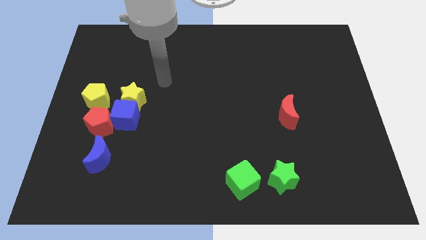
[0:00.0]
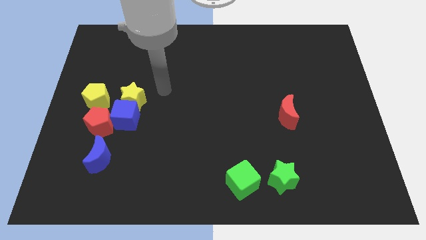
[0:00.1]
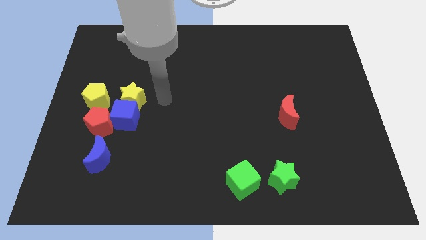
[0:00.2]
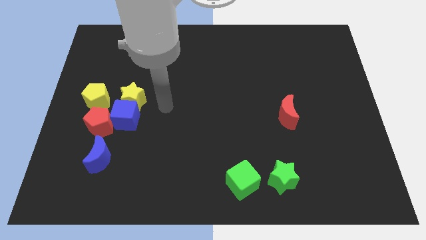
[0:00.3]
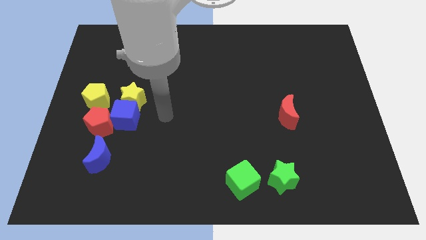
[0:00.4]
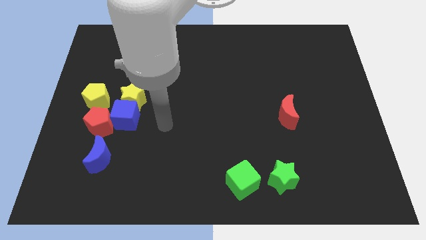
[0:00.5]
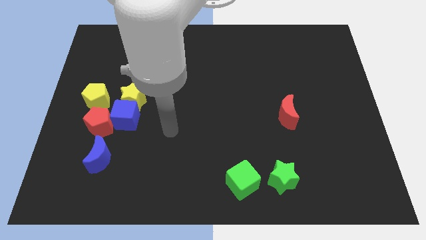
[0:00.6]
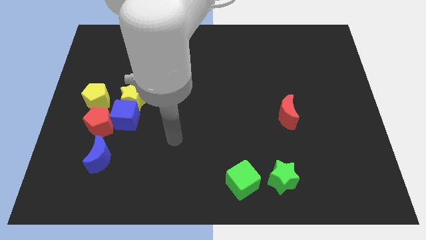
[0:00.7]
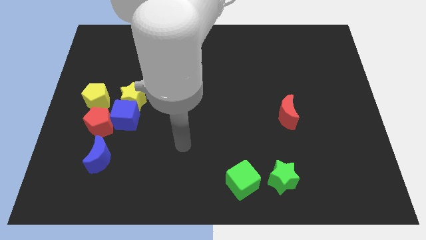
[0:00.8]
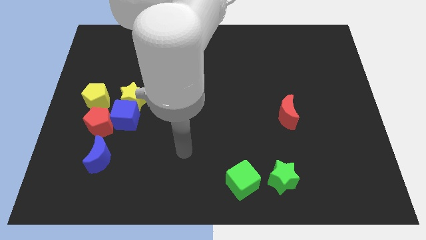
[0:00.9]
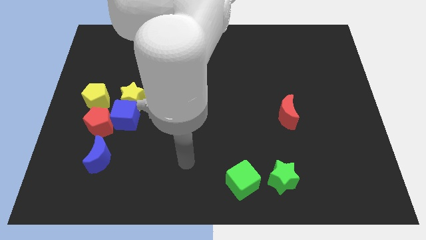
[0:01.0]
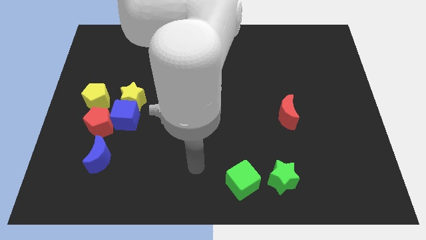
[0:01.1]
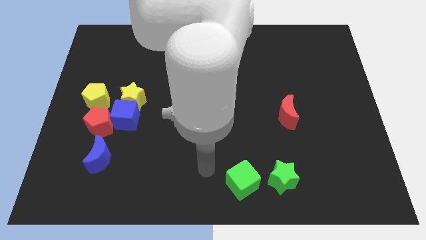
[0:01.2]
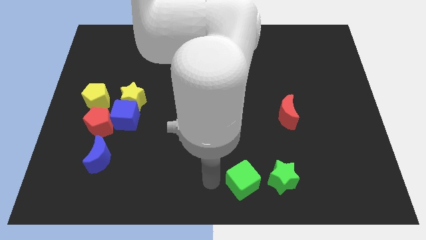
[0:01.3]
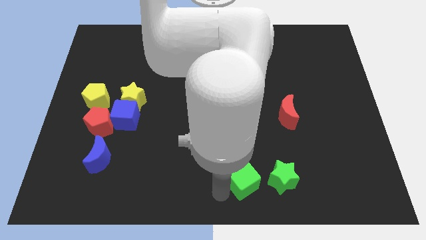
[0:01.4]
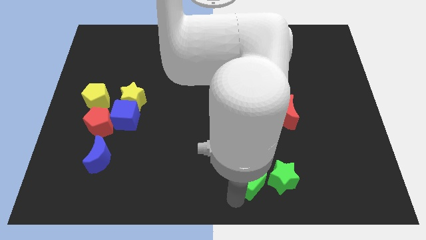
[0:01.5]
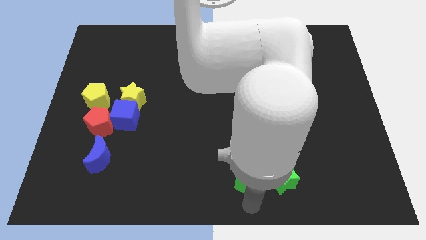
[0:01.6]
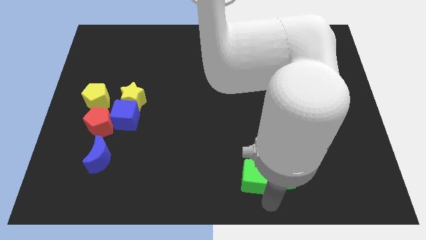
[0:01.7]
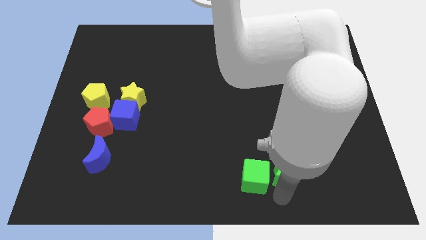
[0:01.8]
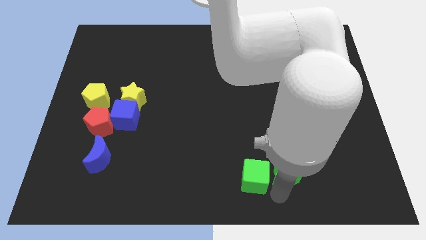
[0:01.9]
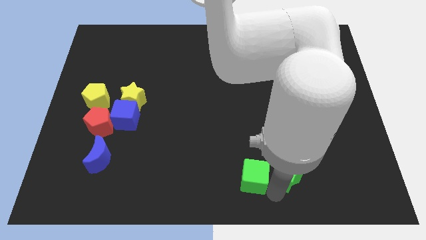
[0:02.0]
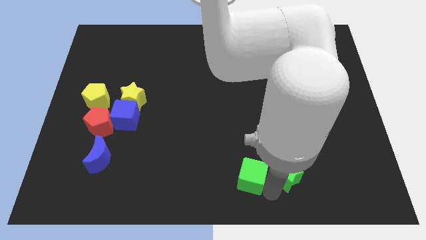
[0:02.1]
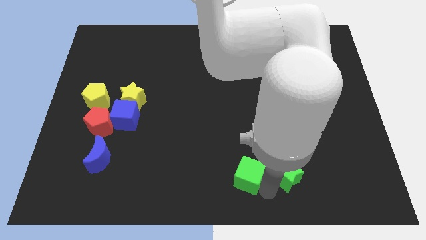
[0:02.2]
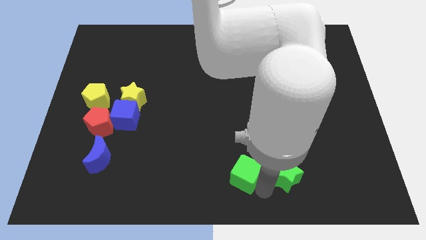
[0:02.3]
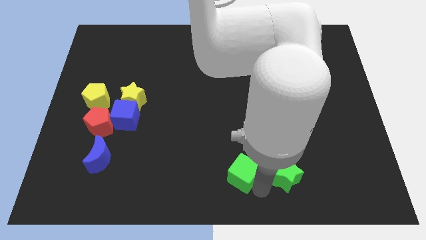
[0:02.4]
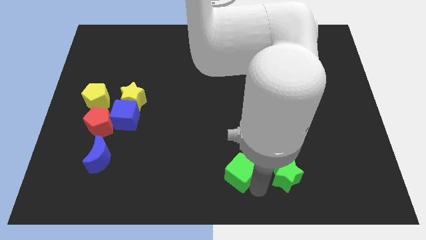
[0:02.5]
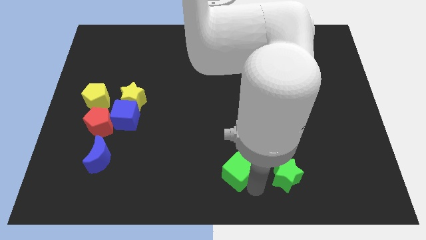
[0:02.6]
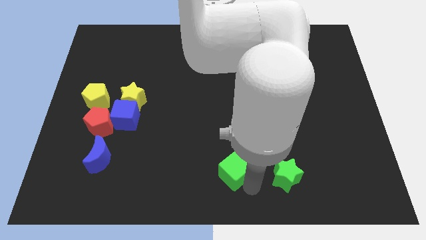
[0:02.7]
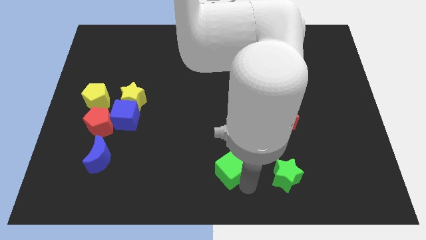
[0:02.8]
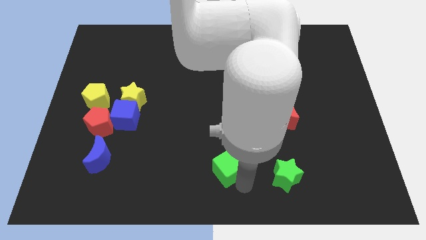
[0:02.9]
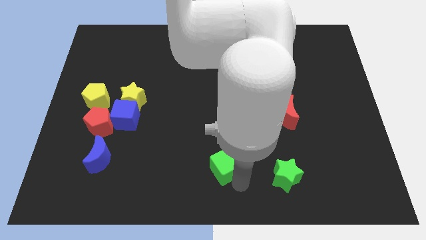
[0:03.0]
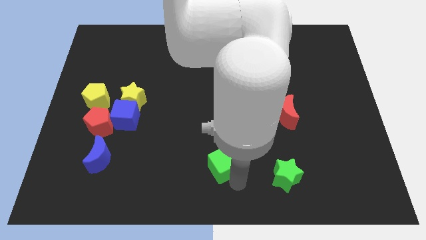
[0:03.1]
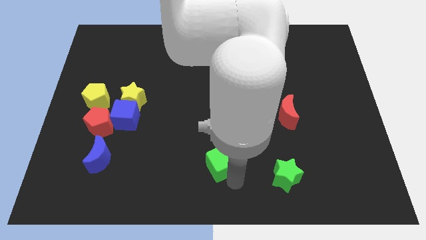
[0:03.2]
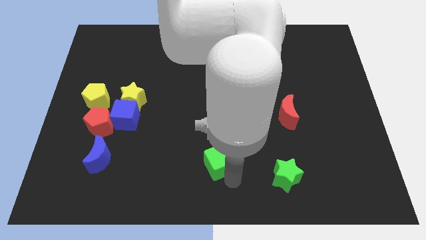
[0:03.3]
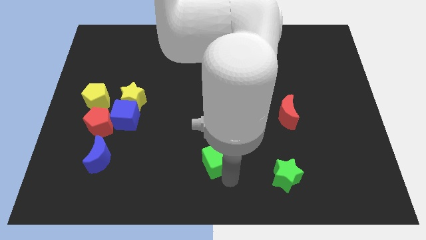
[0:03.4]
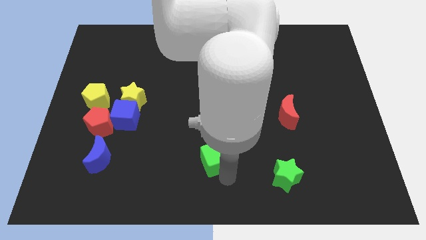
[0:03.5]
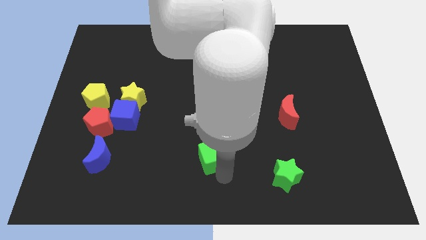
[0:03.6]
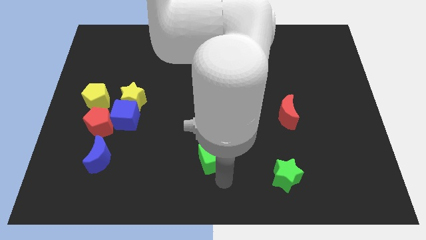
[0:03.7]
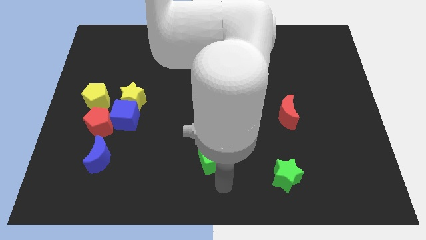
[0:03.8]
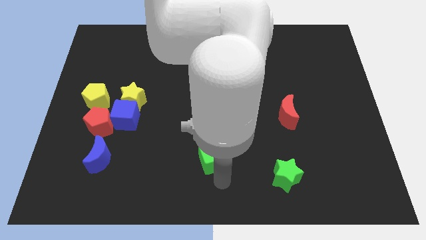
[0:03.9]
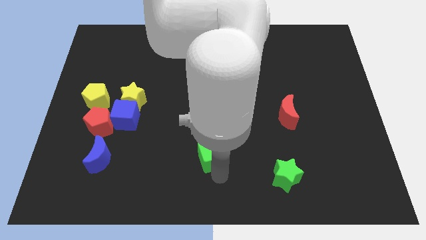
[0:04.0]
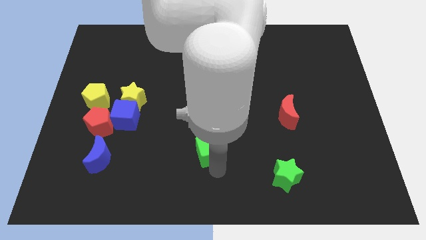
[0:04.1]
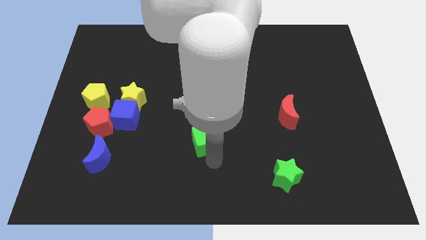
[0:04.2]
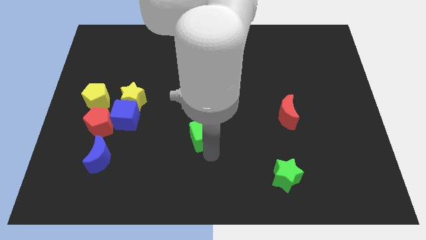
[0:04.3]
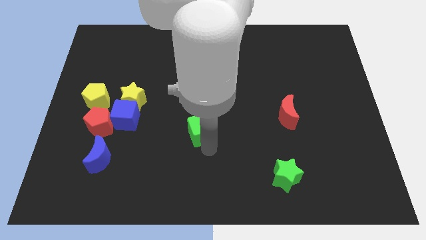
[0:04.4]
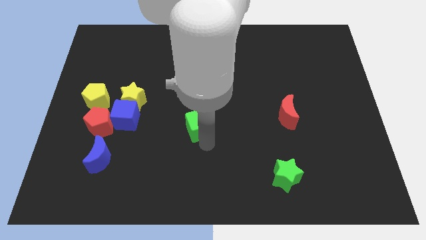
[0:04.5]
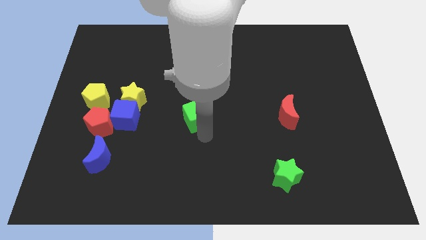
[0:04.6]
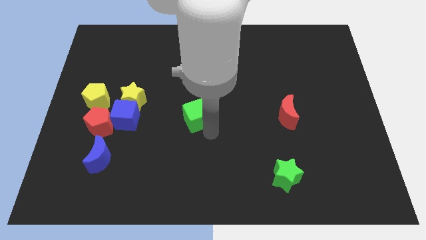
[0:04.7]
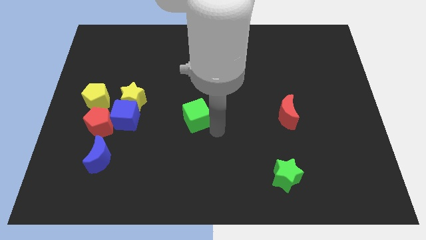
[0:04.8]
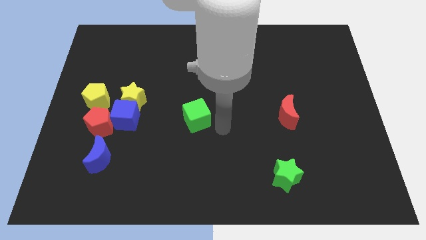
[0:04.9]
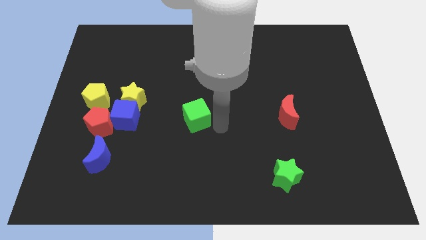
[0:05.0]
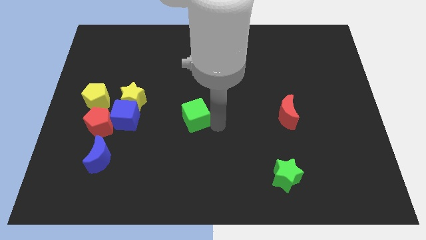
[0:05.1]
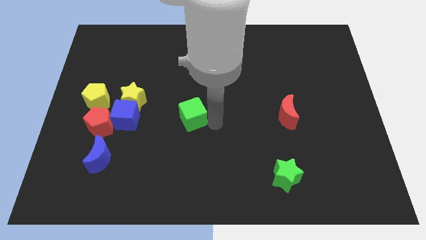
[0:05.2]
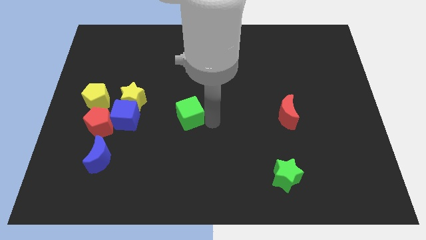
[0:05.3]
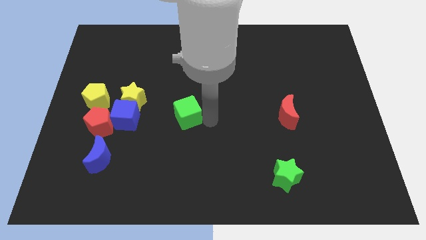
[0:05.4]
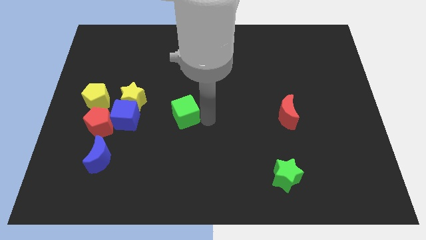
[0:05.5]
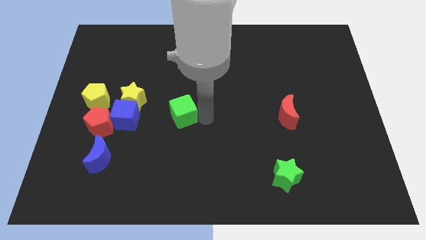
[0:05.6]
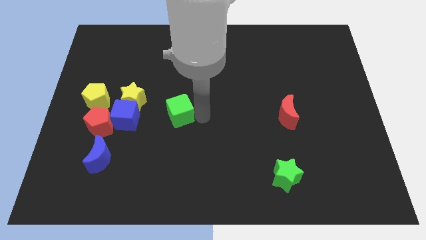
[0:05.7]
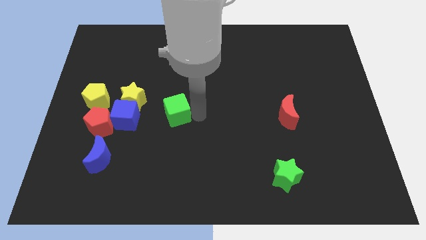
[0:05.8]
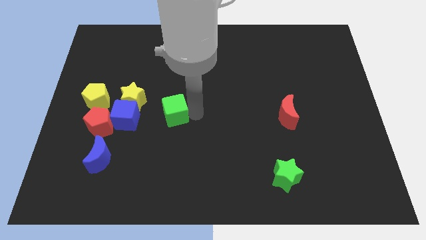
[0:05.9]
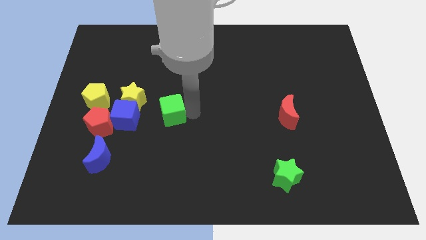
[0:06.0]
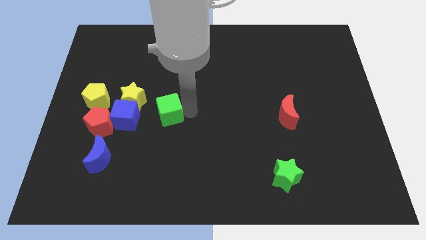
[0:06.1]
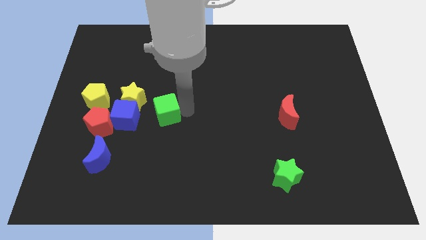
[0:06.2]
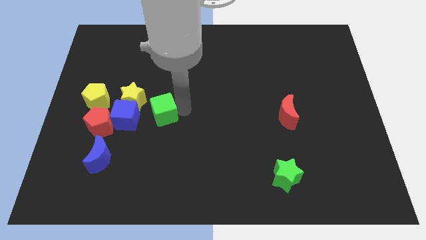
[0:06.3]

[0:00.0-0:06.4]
push the green cube diagonally up and to the right of the blue cube

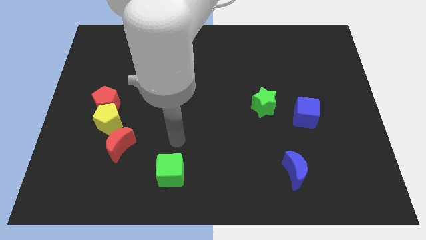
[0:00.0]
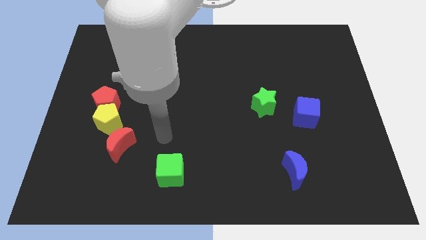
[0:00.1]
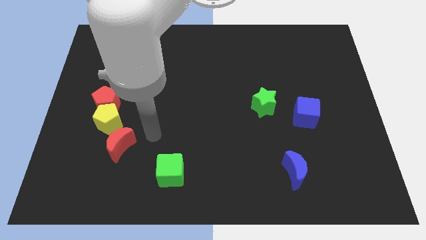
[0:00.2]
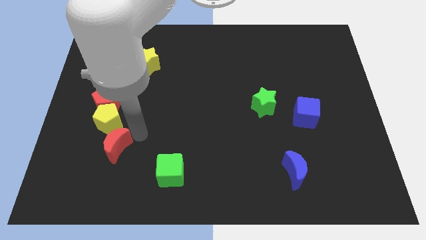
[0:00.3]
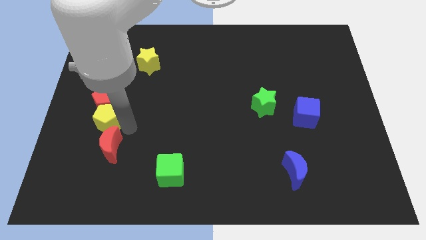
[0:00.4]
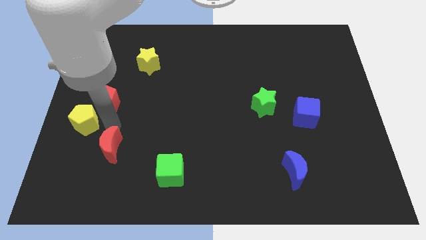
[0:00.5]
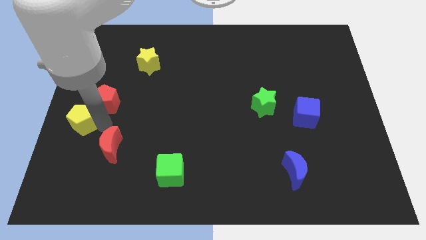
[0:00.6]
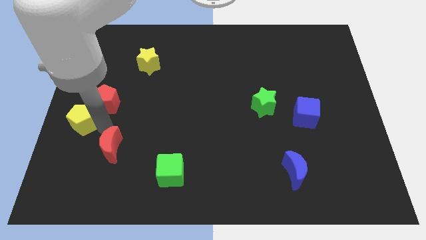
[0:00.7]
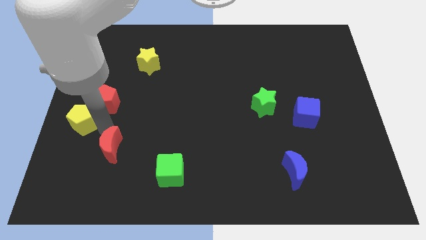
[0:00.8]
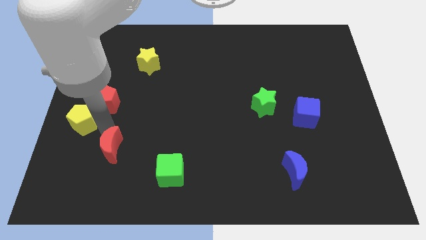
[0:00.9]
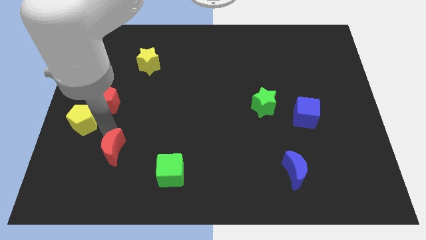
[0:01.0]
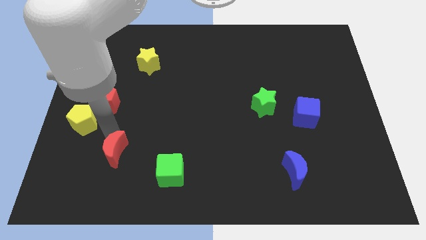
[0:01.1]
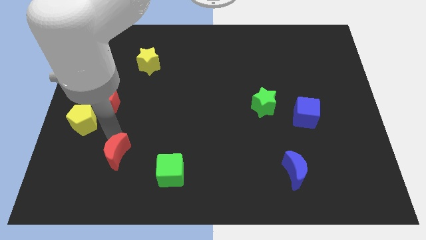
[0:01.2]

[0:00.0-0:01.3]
slide the red moon left of the green cube
